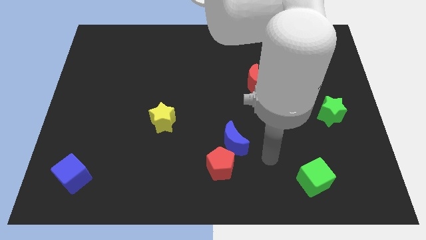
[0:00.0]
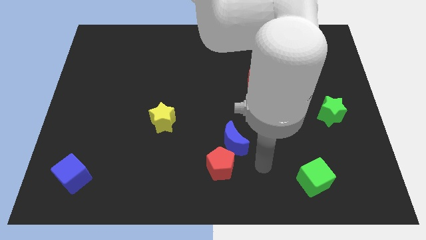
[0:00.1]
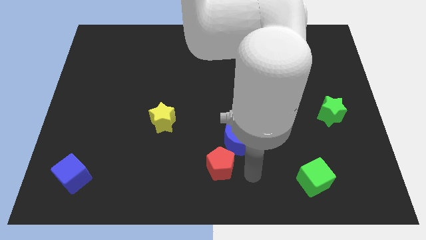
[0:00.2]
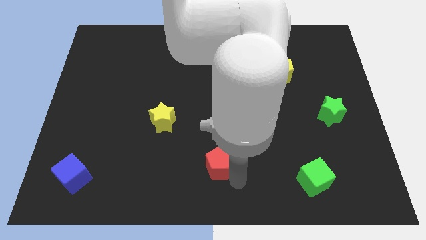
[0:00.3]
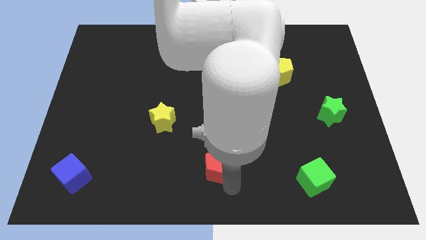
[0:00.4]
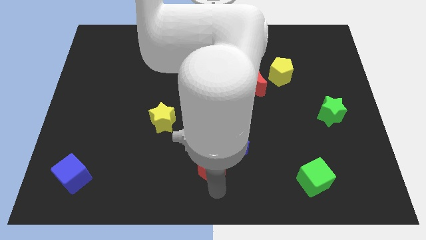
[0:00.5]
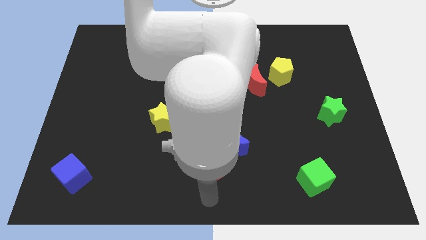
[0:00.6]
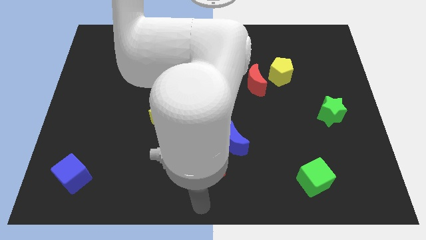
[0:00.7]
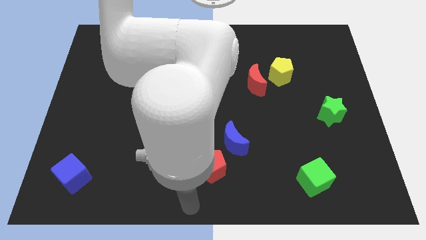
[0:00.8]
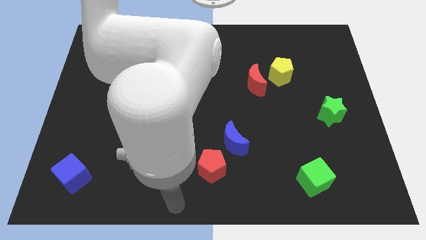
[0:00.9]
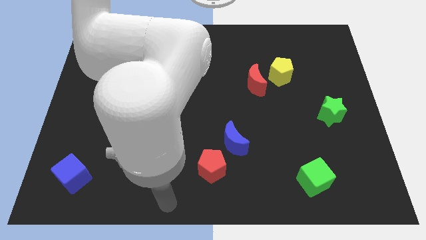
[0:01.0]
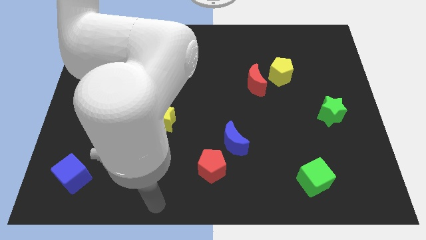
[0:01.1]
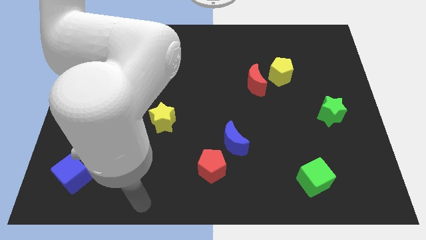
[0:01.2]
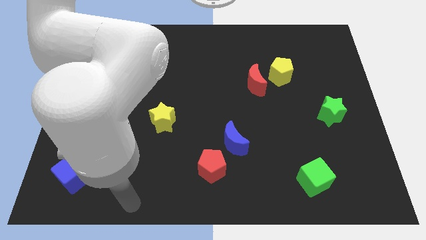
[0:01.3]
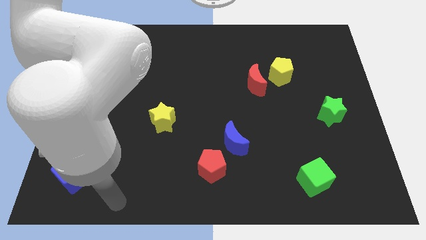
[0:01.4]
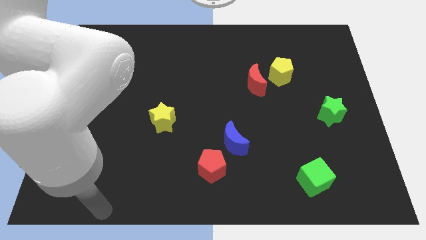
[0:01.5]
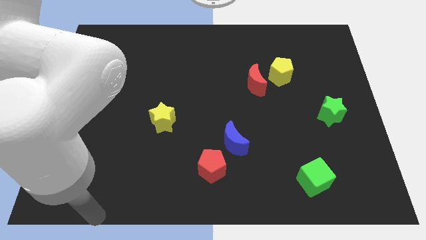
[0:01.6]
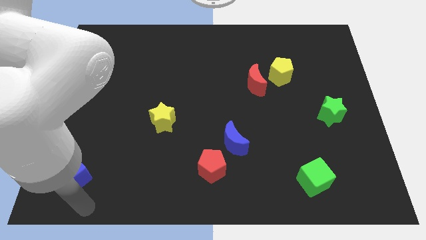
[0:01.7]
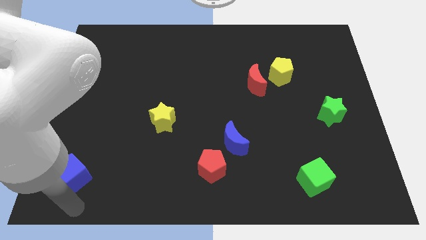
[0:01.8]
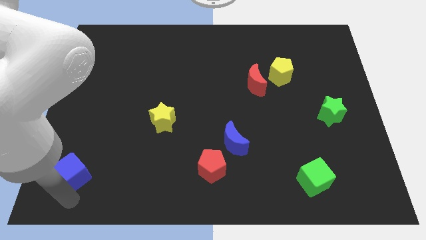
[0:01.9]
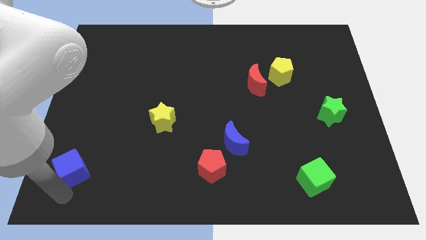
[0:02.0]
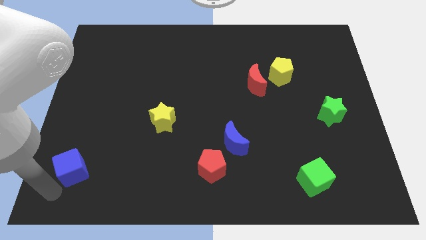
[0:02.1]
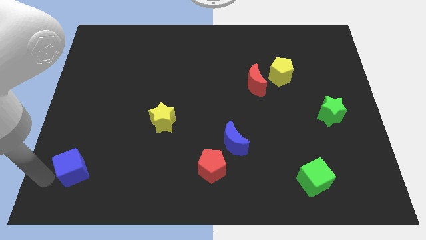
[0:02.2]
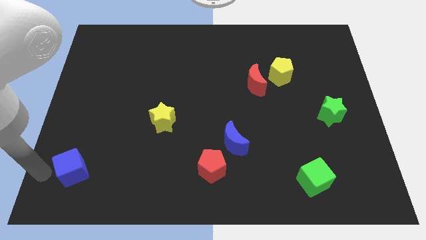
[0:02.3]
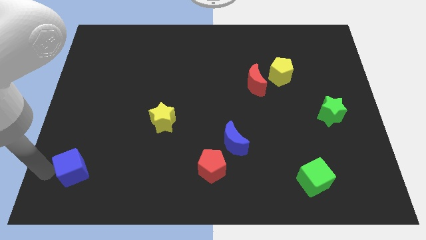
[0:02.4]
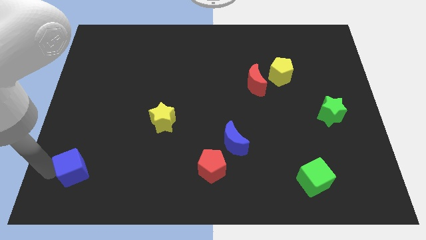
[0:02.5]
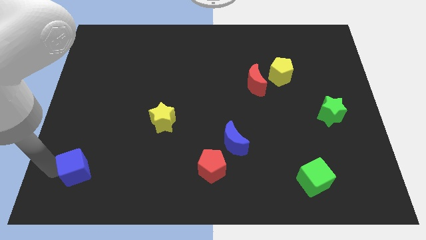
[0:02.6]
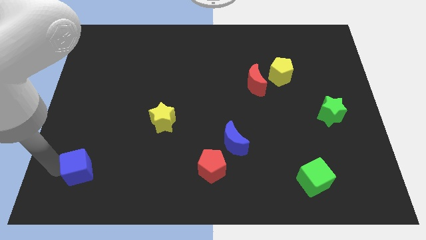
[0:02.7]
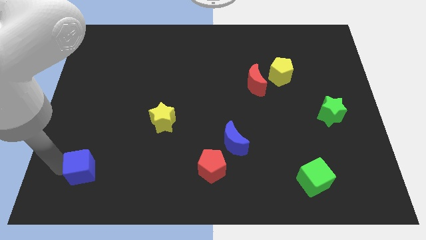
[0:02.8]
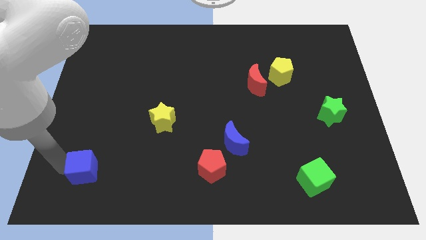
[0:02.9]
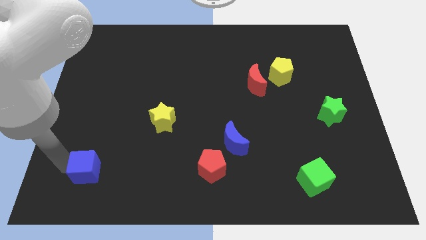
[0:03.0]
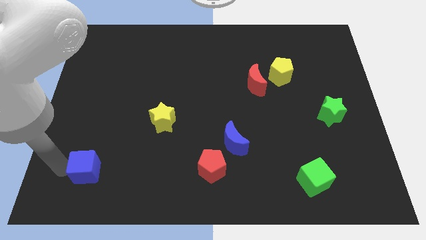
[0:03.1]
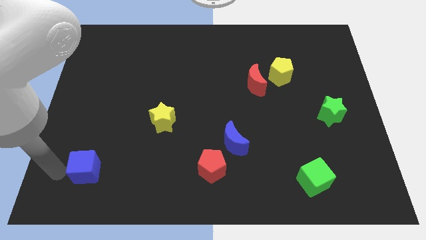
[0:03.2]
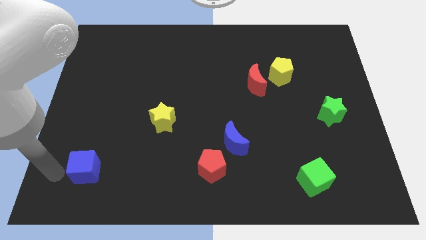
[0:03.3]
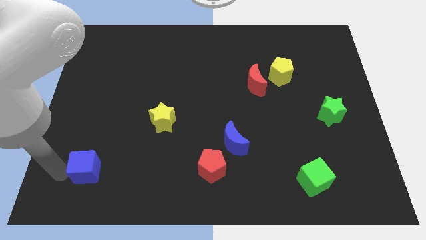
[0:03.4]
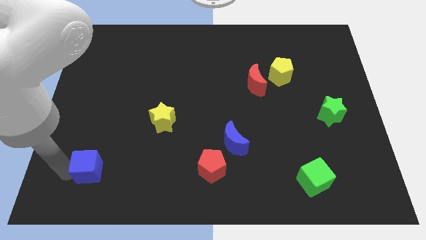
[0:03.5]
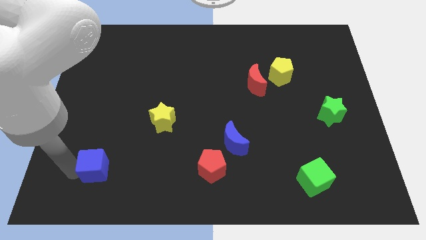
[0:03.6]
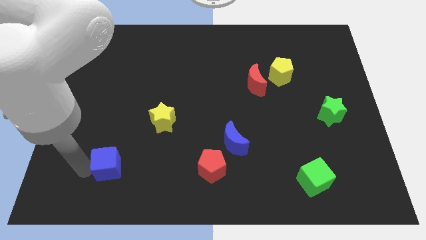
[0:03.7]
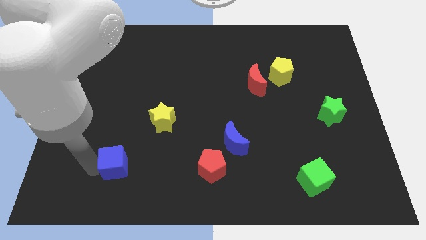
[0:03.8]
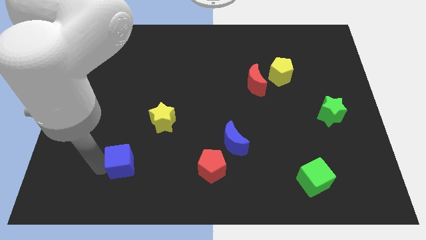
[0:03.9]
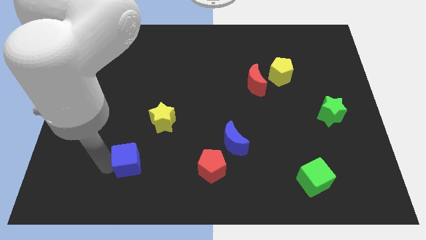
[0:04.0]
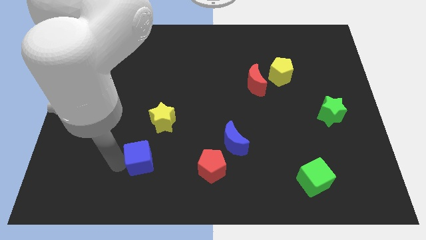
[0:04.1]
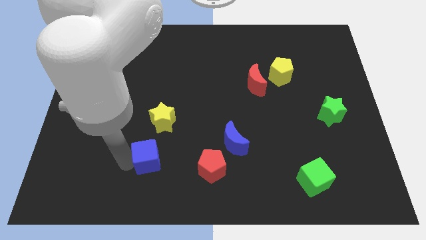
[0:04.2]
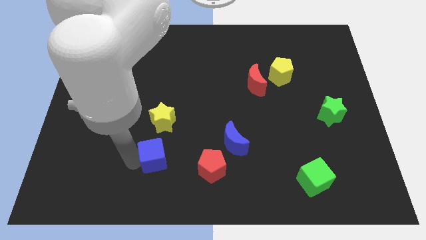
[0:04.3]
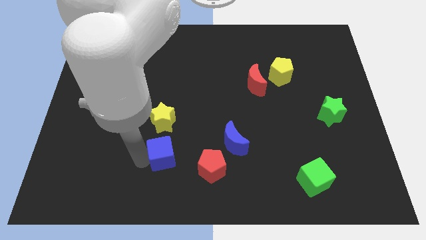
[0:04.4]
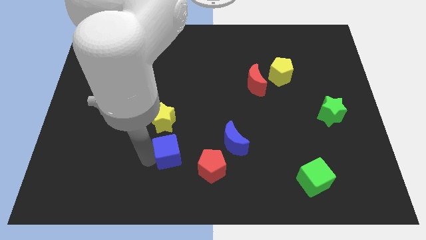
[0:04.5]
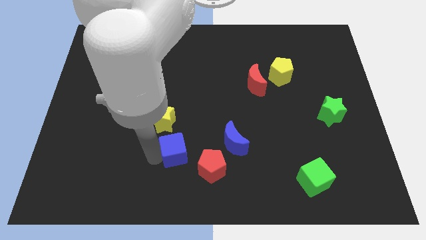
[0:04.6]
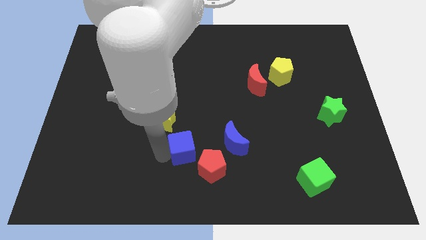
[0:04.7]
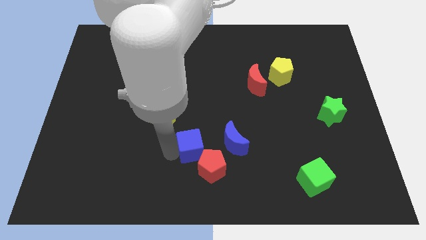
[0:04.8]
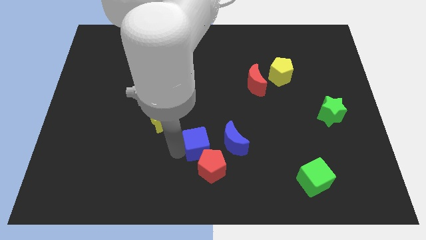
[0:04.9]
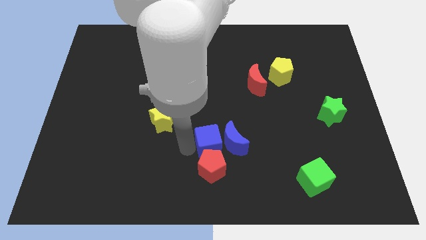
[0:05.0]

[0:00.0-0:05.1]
put the blue cube towards the blue moon
